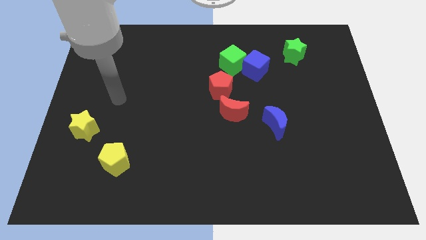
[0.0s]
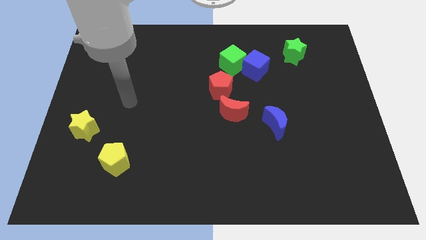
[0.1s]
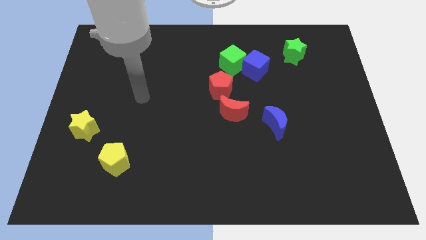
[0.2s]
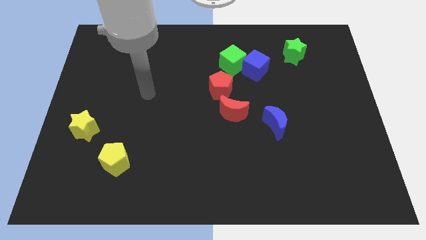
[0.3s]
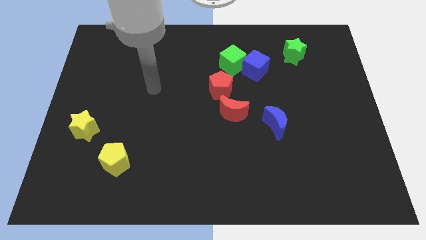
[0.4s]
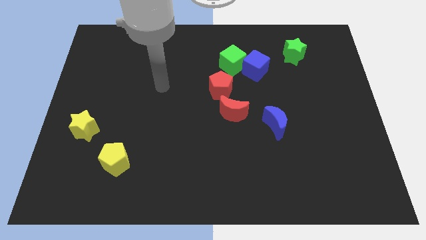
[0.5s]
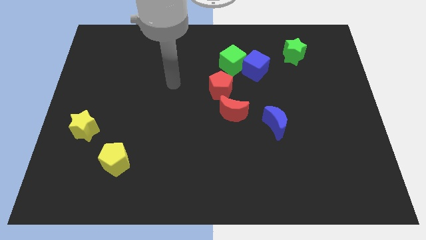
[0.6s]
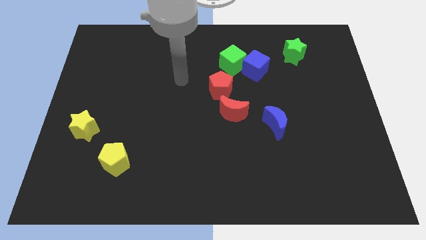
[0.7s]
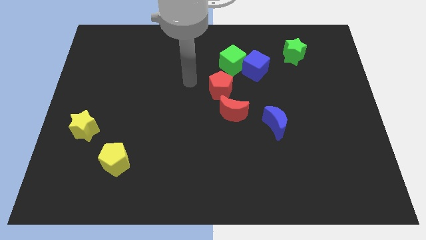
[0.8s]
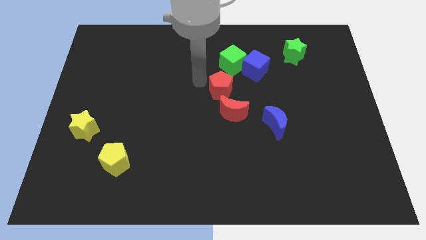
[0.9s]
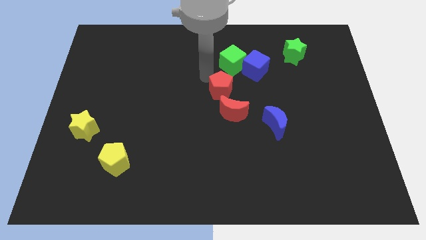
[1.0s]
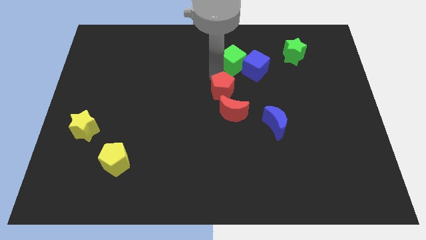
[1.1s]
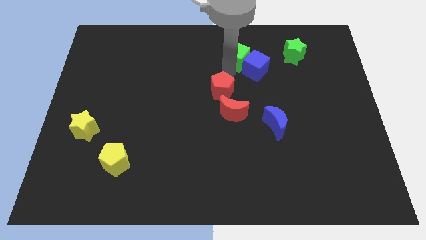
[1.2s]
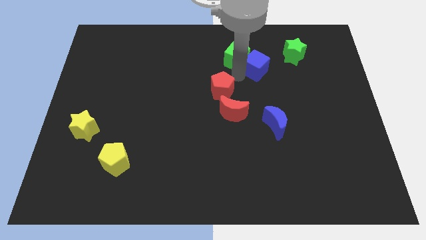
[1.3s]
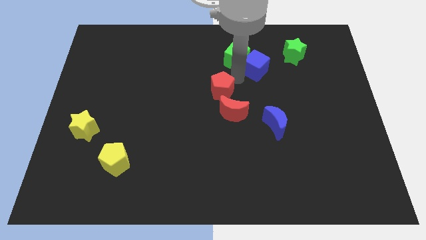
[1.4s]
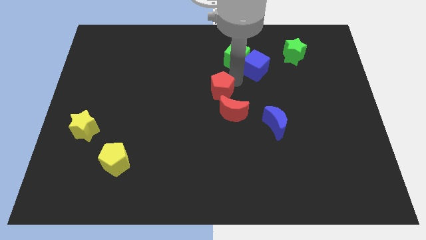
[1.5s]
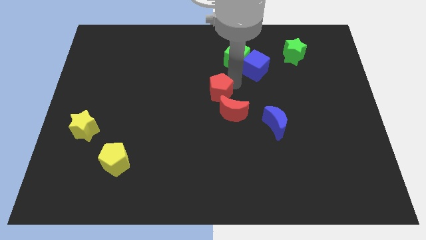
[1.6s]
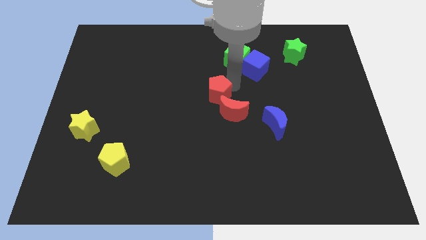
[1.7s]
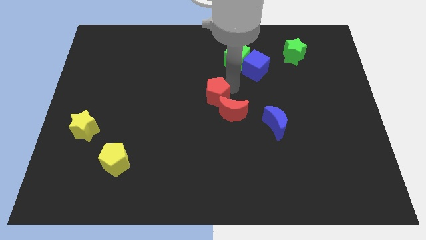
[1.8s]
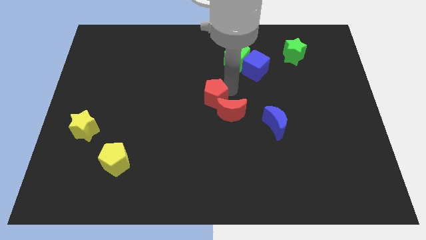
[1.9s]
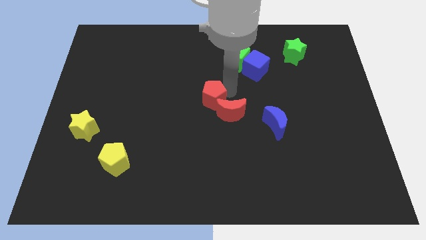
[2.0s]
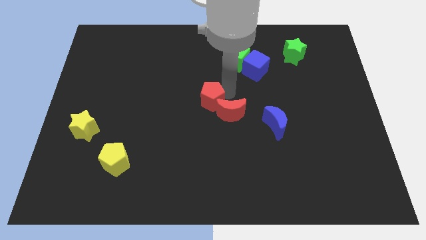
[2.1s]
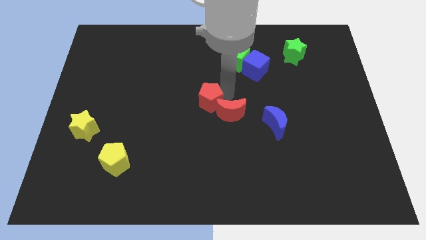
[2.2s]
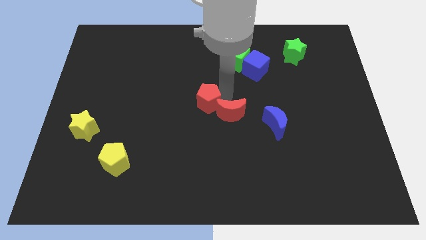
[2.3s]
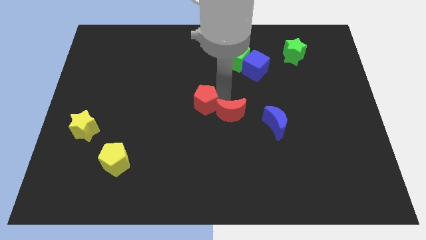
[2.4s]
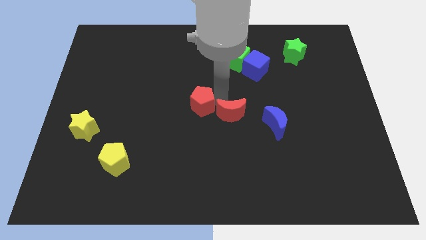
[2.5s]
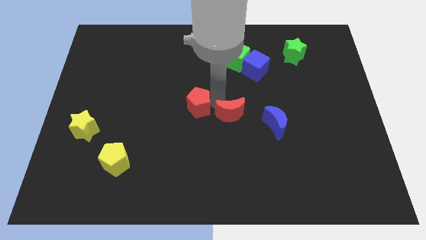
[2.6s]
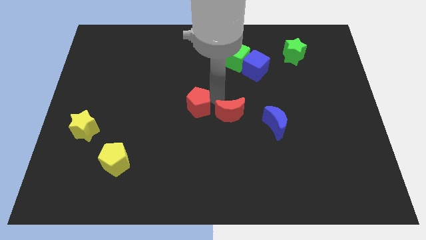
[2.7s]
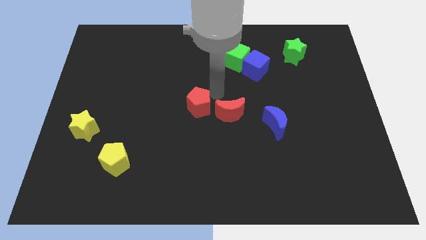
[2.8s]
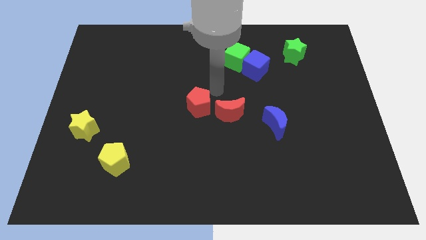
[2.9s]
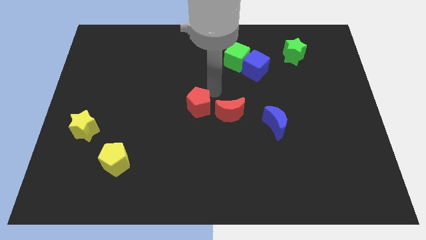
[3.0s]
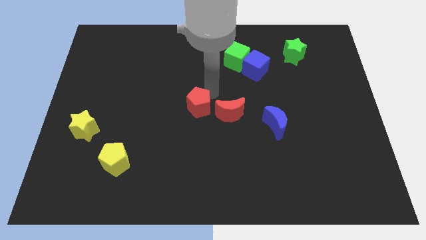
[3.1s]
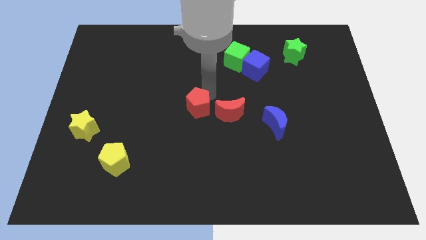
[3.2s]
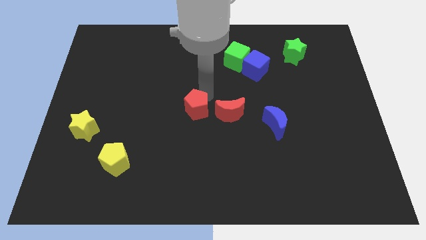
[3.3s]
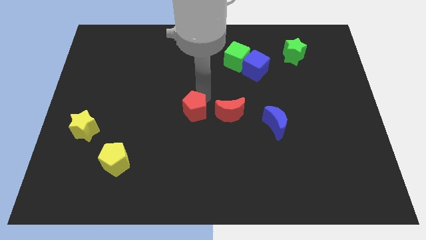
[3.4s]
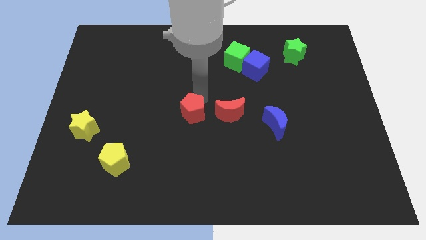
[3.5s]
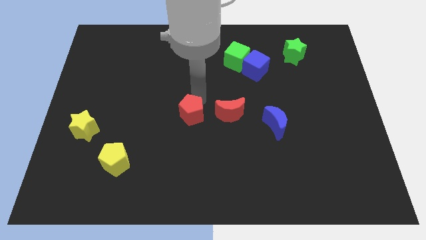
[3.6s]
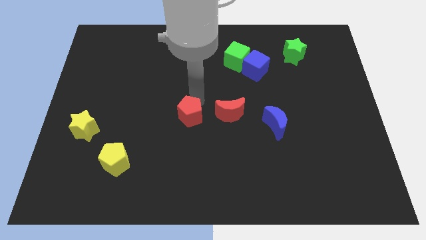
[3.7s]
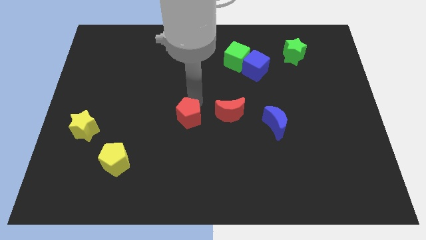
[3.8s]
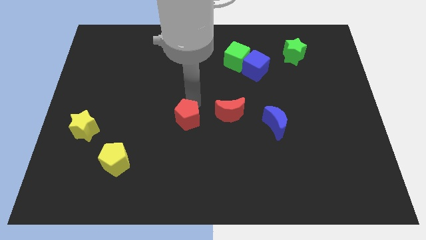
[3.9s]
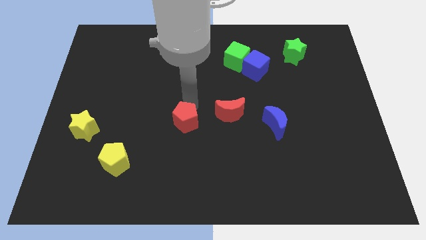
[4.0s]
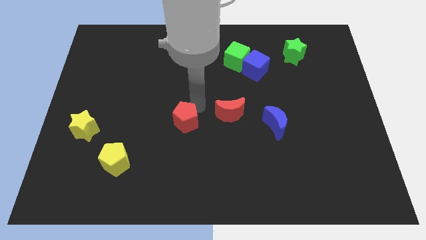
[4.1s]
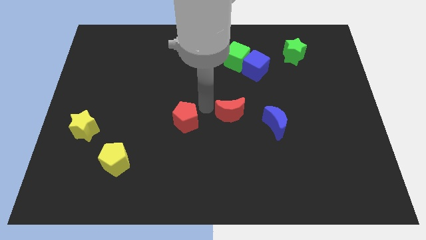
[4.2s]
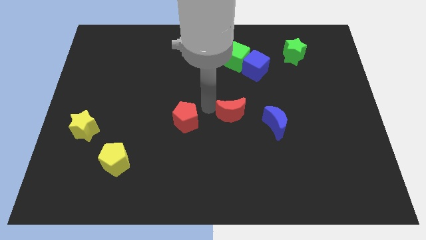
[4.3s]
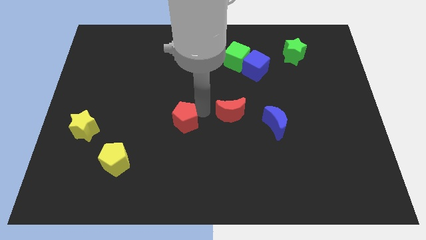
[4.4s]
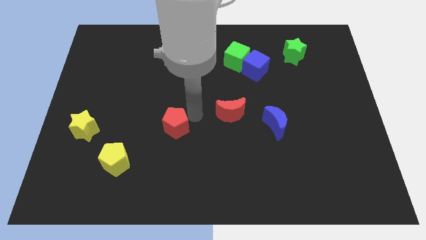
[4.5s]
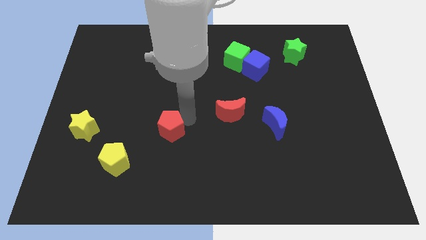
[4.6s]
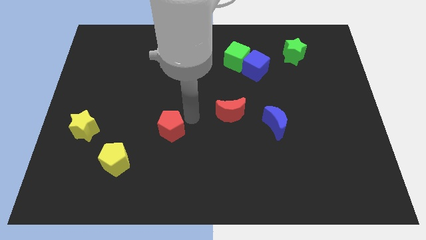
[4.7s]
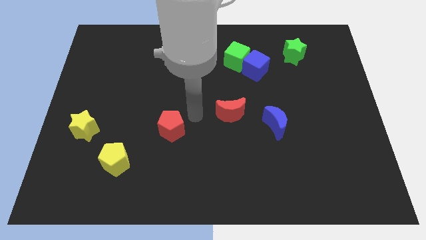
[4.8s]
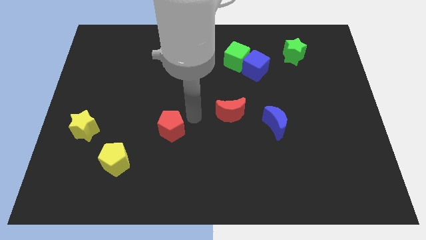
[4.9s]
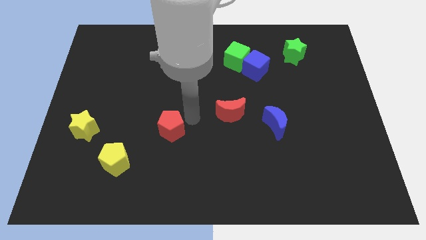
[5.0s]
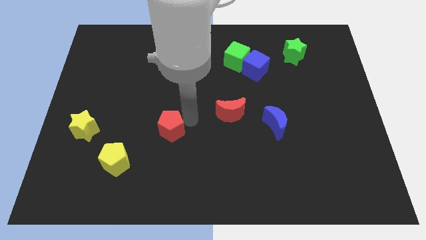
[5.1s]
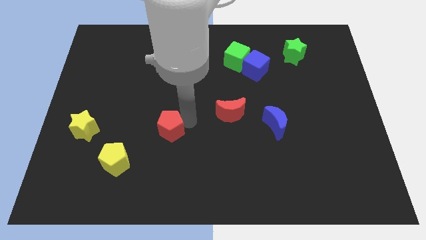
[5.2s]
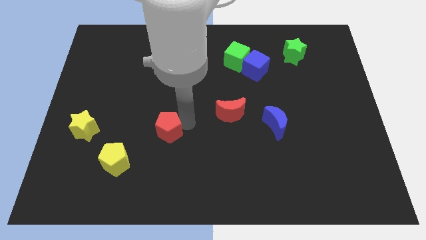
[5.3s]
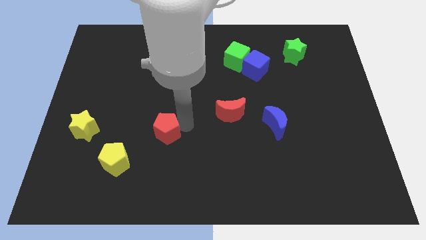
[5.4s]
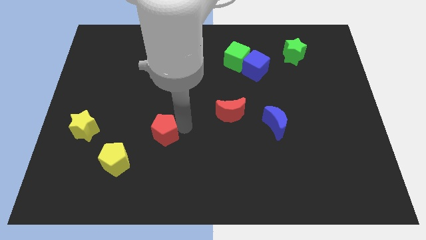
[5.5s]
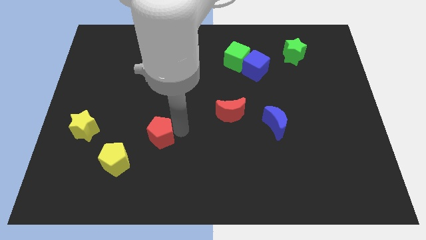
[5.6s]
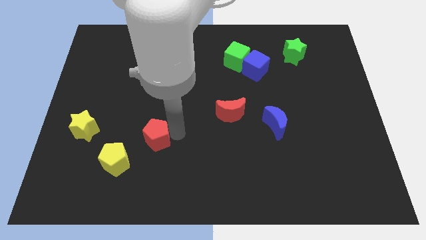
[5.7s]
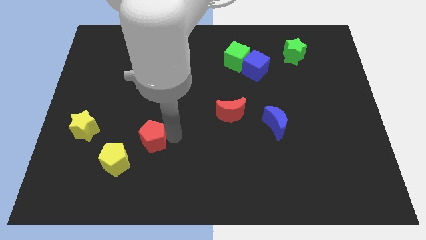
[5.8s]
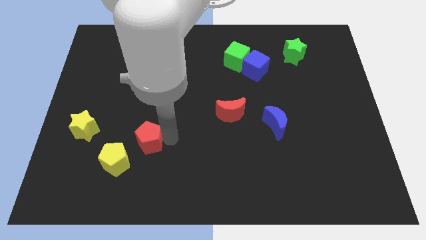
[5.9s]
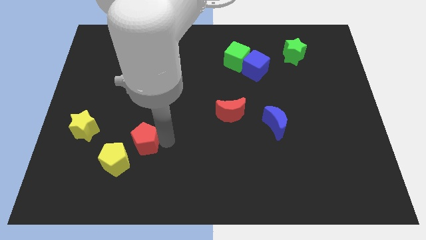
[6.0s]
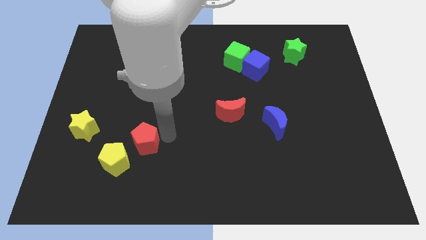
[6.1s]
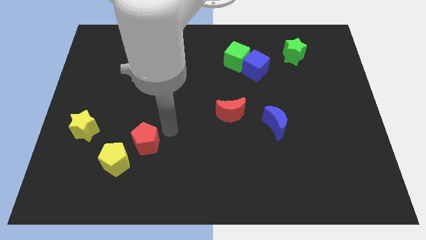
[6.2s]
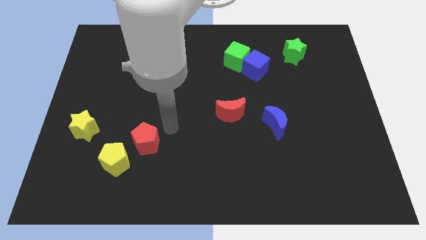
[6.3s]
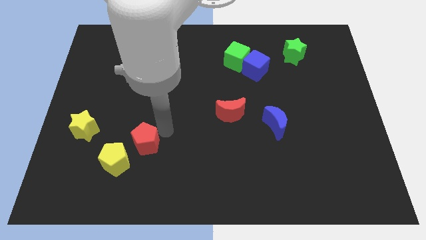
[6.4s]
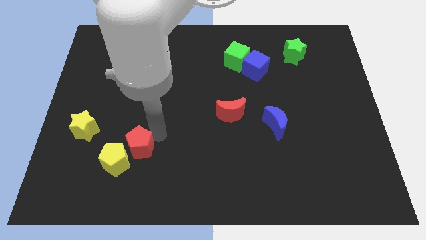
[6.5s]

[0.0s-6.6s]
slide the red pentagon close to the yellow pentagon
